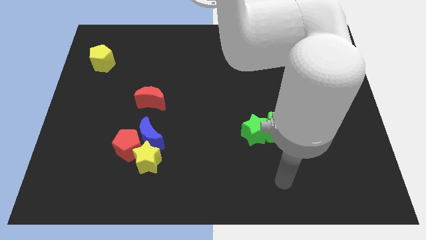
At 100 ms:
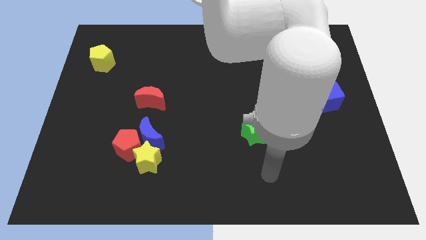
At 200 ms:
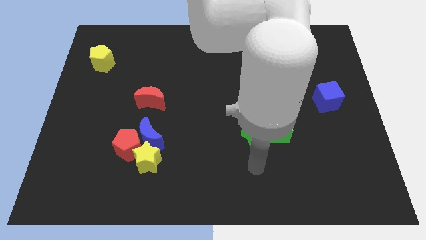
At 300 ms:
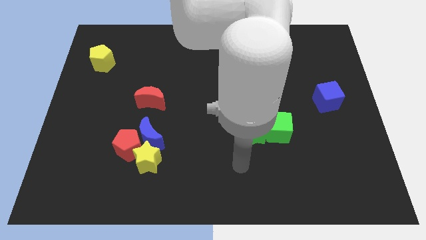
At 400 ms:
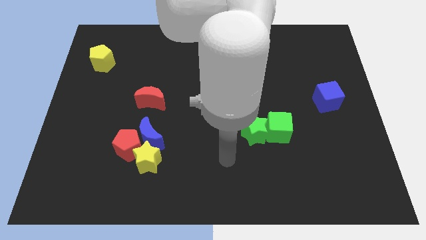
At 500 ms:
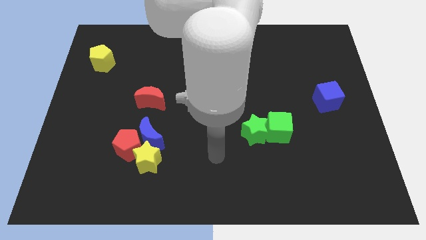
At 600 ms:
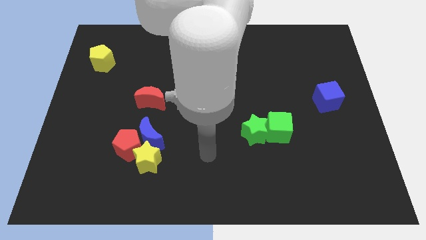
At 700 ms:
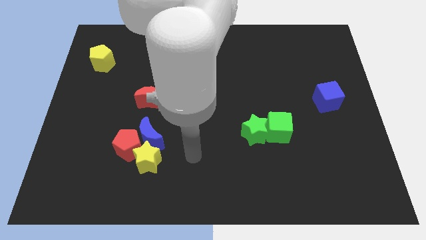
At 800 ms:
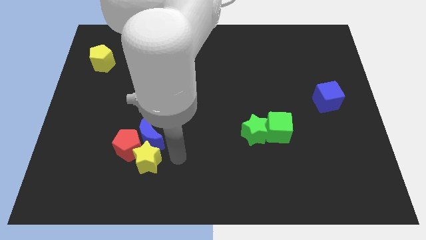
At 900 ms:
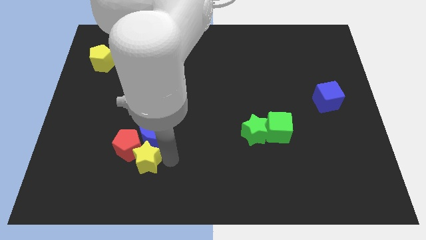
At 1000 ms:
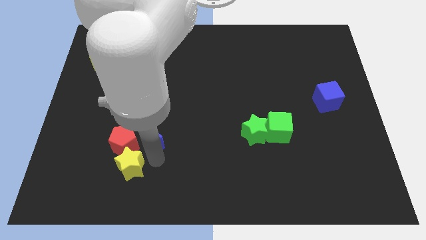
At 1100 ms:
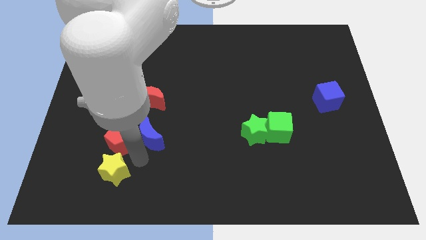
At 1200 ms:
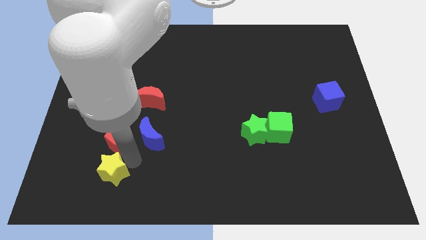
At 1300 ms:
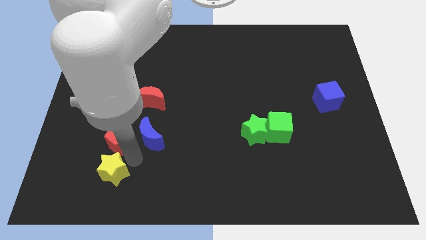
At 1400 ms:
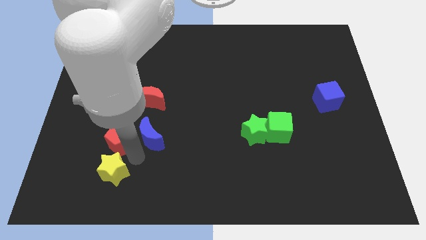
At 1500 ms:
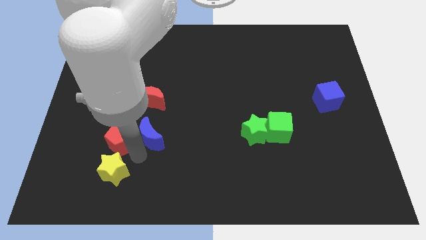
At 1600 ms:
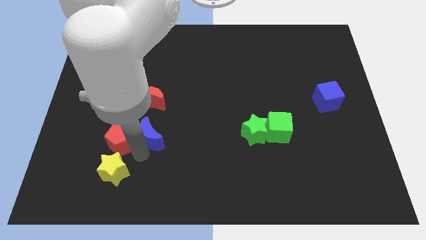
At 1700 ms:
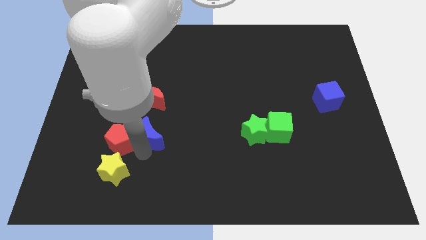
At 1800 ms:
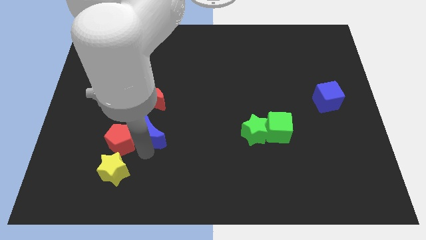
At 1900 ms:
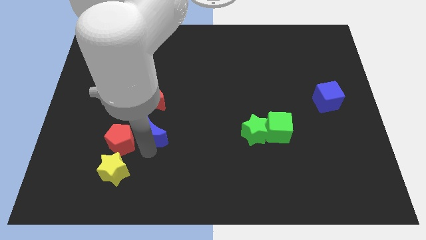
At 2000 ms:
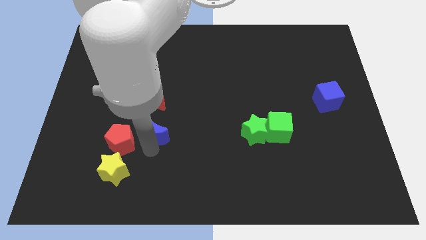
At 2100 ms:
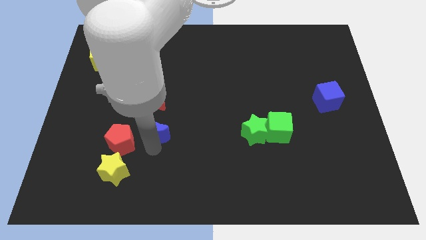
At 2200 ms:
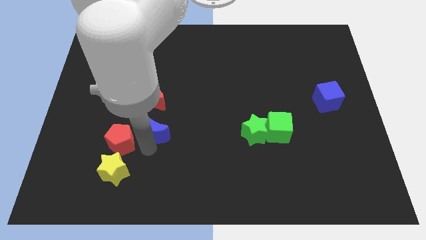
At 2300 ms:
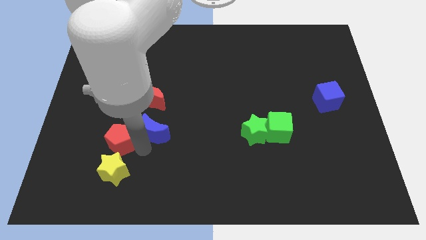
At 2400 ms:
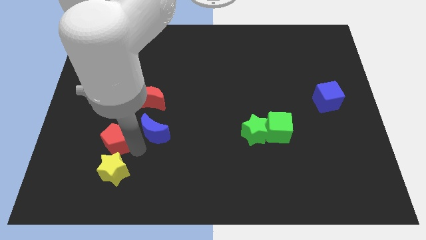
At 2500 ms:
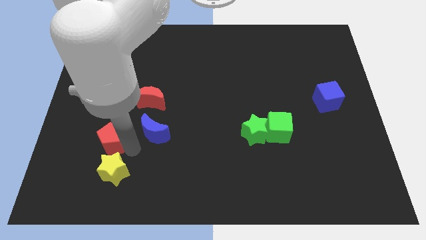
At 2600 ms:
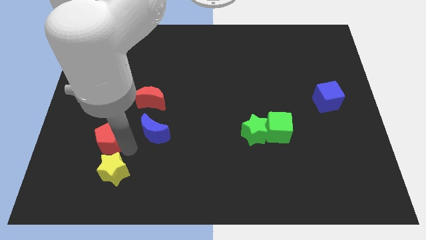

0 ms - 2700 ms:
separate the blue moon from the red pentagon and yellow star

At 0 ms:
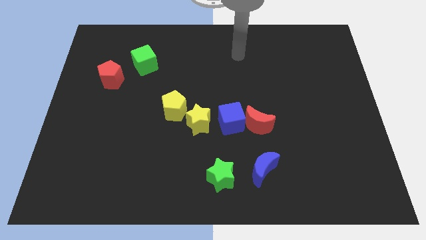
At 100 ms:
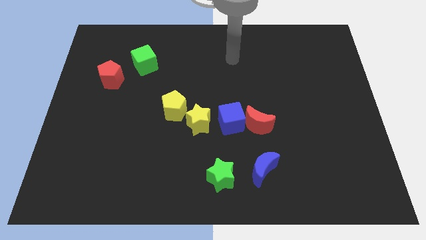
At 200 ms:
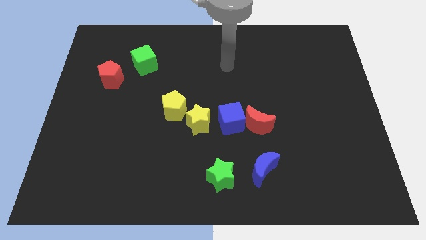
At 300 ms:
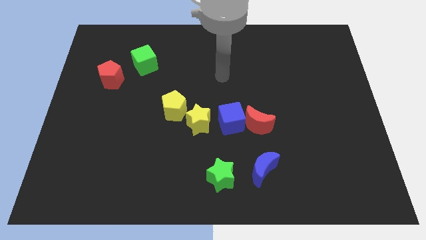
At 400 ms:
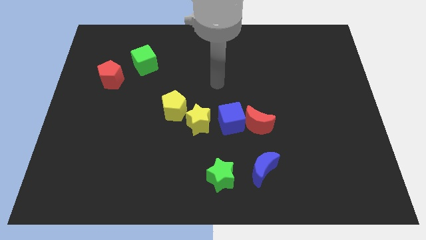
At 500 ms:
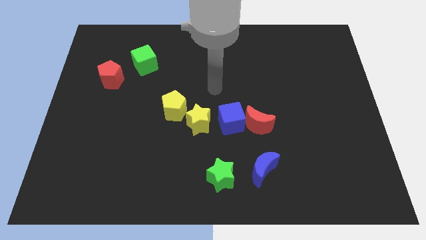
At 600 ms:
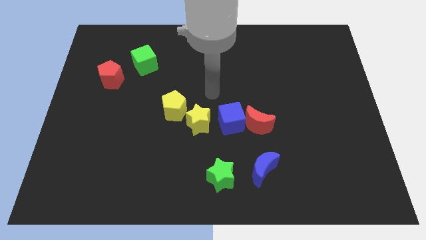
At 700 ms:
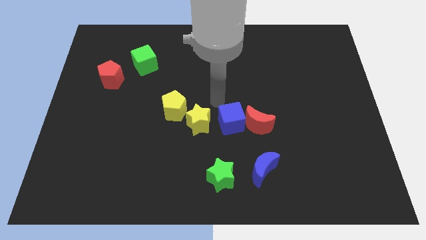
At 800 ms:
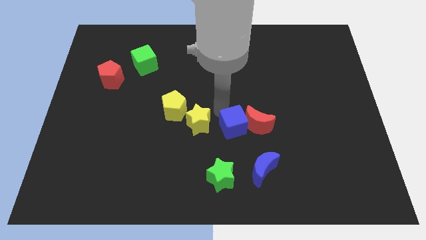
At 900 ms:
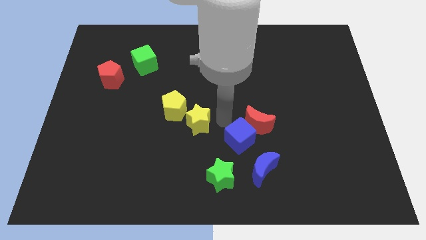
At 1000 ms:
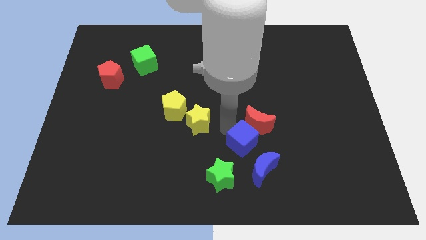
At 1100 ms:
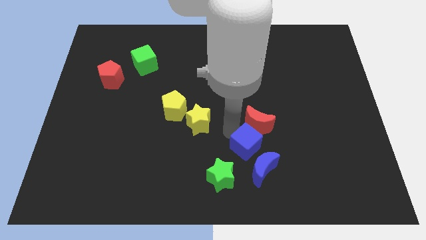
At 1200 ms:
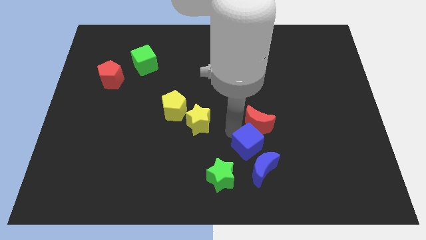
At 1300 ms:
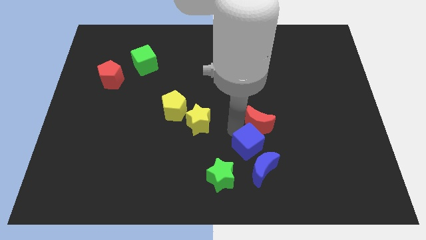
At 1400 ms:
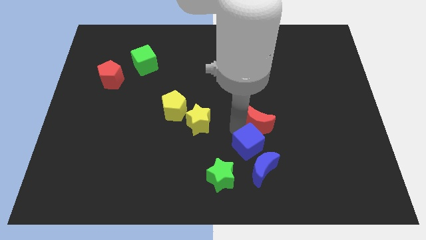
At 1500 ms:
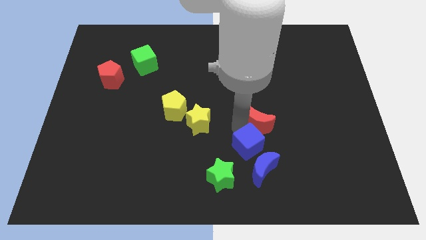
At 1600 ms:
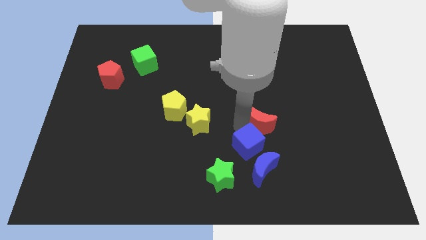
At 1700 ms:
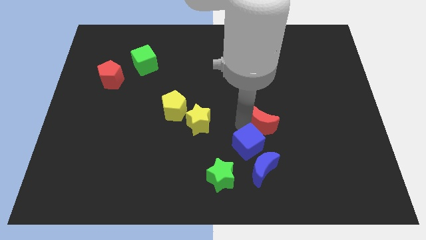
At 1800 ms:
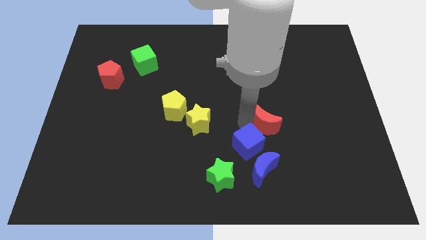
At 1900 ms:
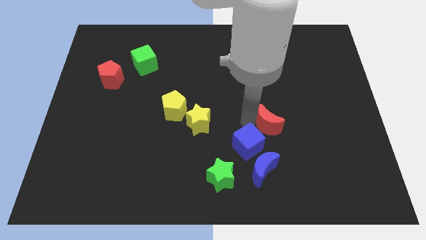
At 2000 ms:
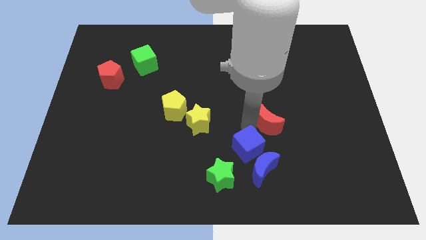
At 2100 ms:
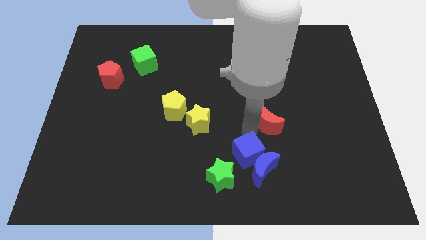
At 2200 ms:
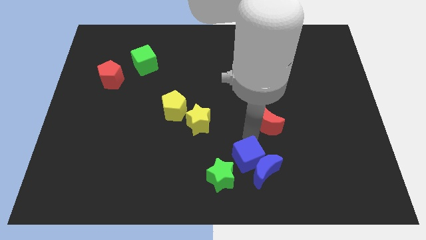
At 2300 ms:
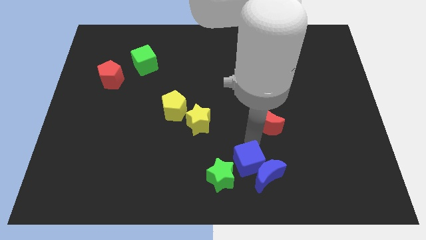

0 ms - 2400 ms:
pull the red moon apart from the blue cube

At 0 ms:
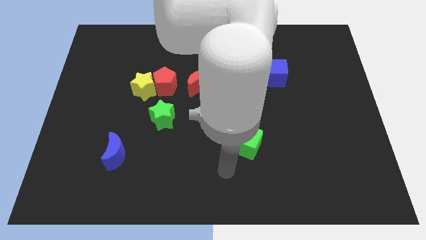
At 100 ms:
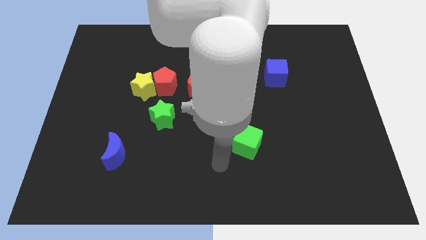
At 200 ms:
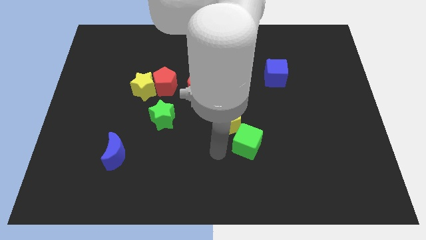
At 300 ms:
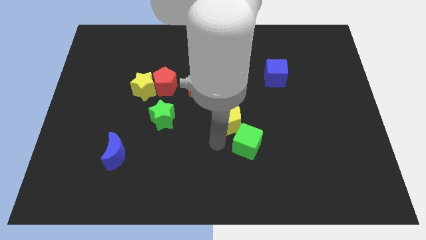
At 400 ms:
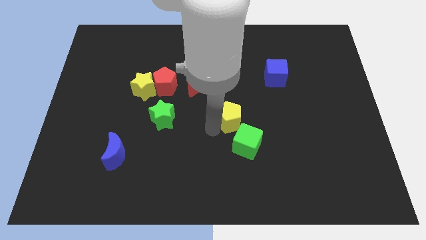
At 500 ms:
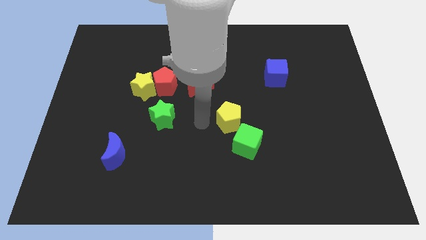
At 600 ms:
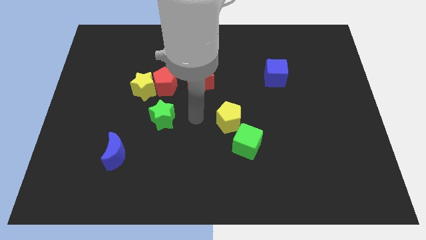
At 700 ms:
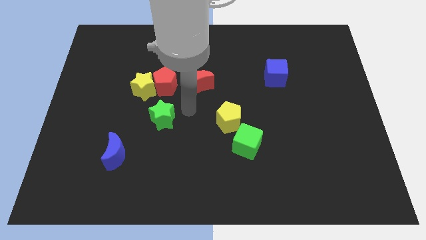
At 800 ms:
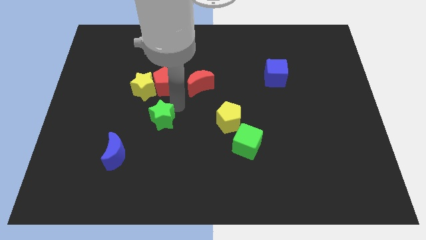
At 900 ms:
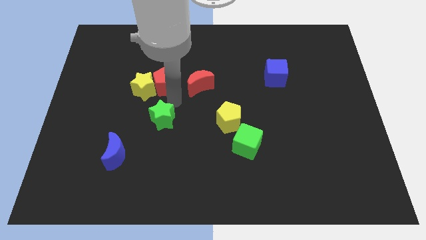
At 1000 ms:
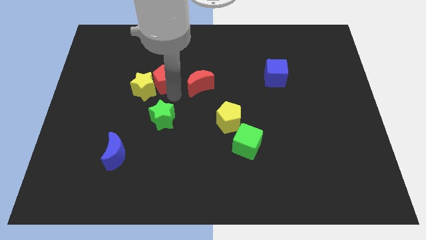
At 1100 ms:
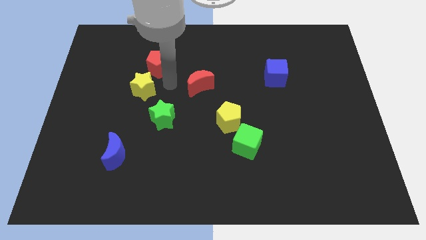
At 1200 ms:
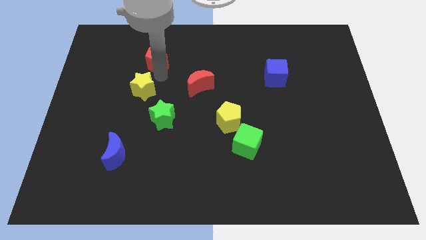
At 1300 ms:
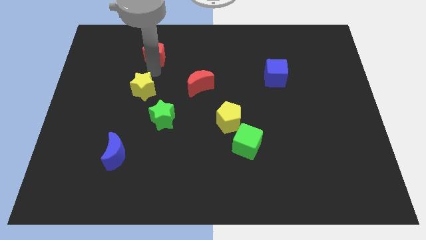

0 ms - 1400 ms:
pull the yellow star apart from the red pentagon

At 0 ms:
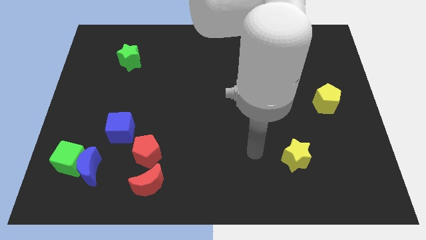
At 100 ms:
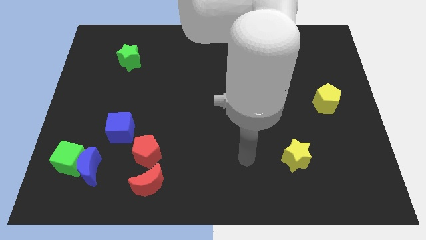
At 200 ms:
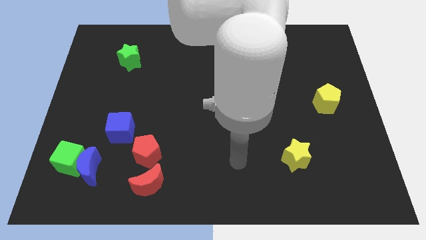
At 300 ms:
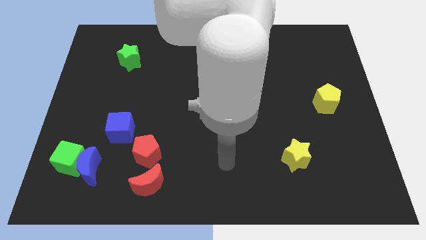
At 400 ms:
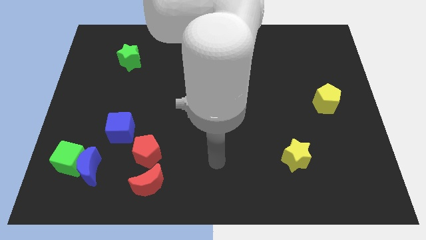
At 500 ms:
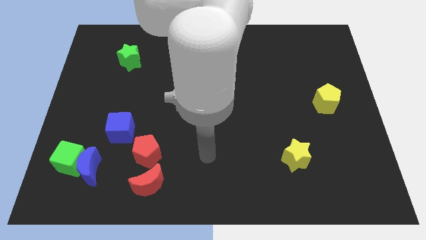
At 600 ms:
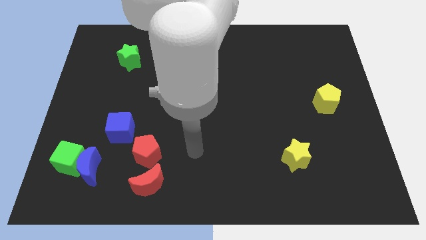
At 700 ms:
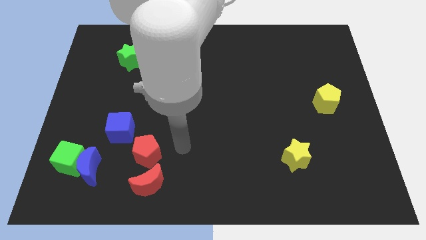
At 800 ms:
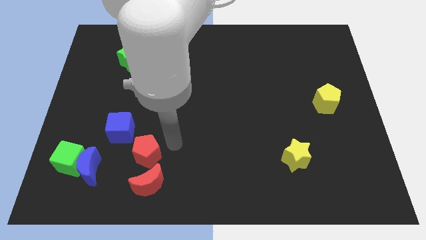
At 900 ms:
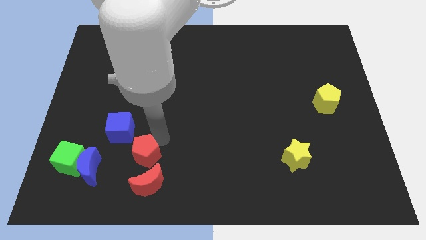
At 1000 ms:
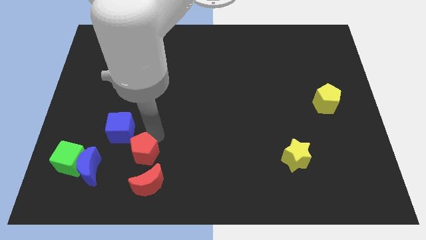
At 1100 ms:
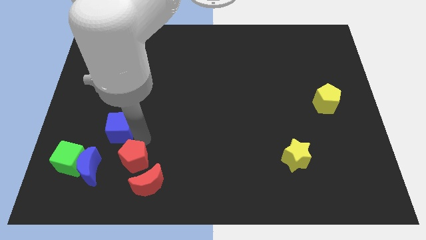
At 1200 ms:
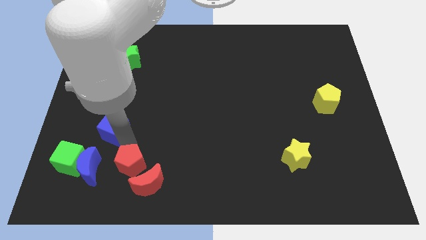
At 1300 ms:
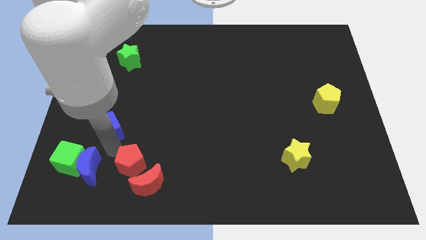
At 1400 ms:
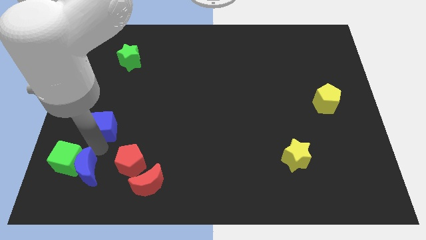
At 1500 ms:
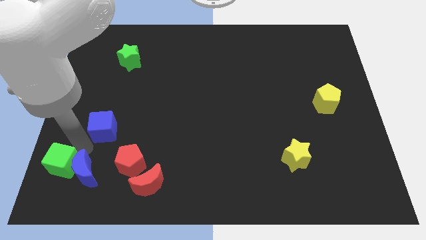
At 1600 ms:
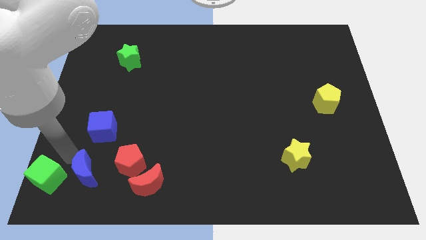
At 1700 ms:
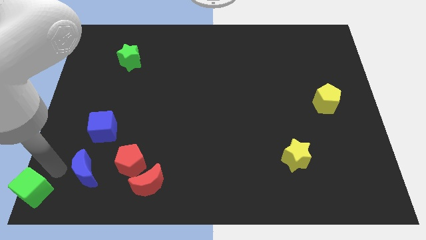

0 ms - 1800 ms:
separate the blue moon from the green cube

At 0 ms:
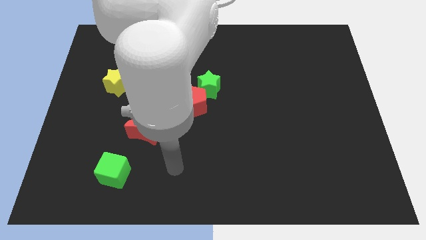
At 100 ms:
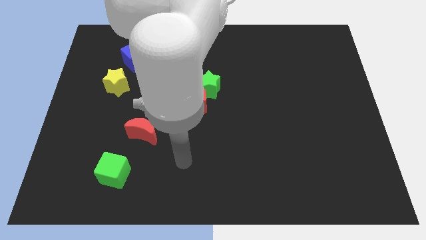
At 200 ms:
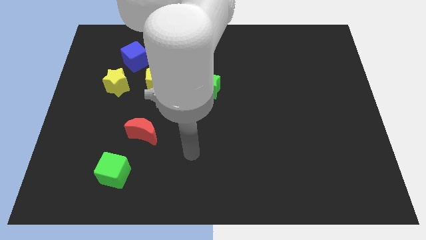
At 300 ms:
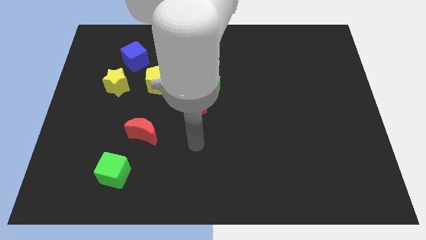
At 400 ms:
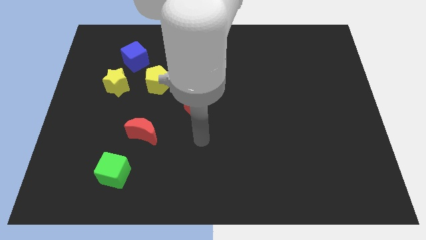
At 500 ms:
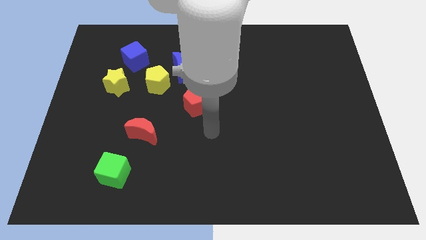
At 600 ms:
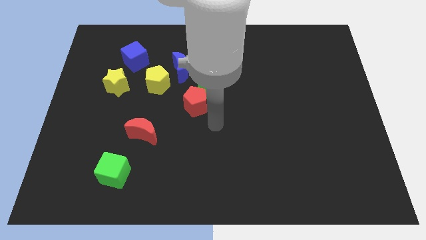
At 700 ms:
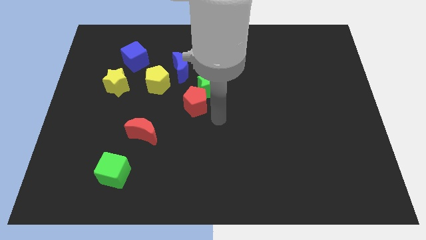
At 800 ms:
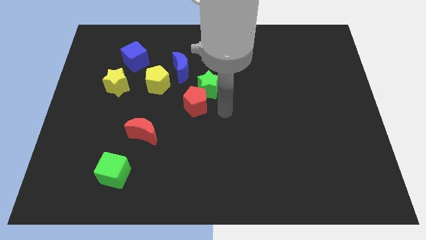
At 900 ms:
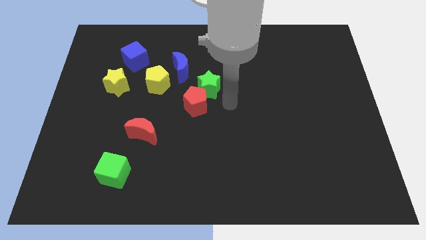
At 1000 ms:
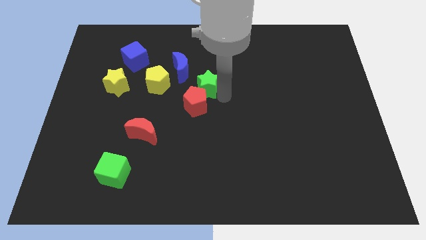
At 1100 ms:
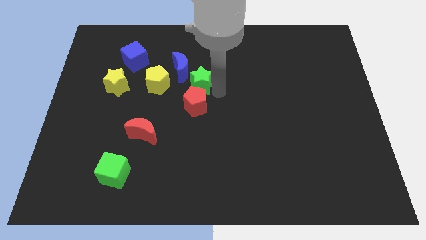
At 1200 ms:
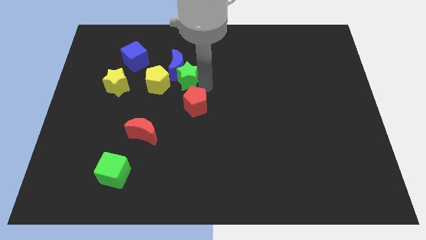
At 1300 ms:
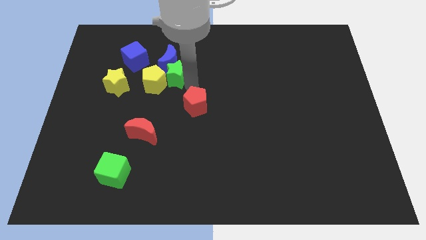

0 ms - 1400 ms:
separate the red pentagon from the green star
